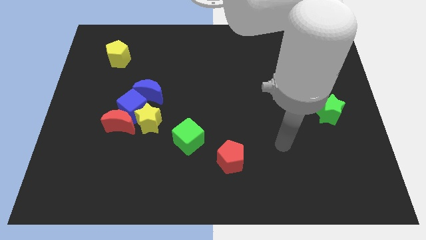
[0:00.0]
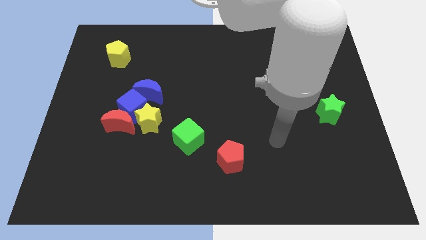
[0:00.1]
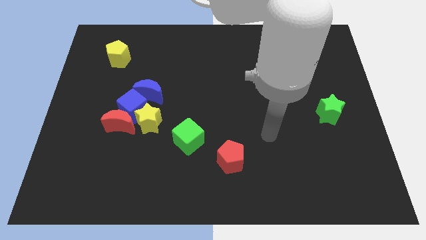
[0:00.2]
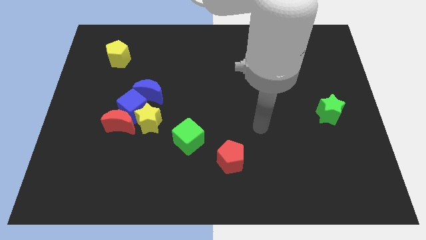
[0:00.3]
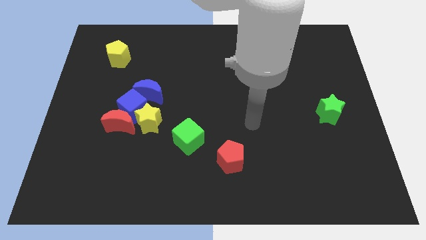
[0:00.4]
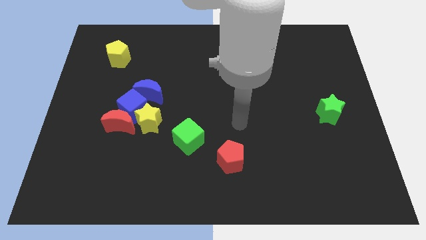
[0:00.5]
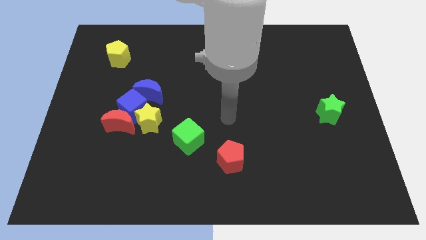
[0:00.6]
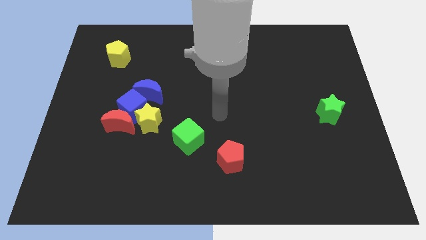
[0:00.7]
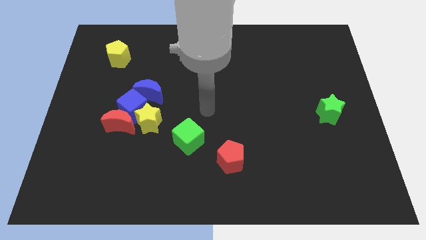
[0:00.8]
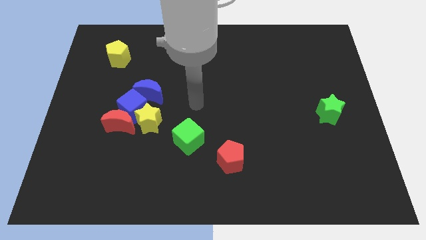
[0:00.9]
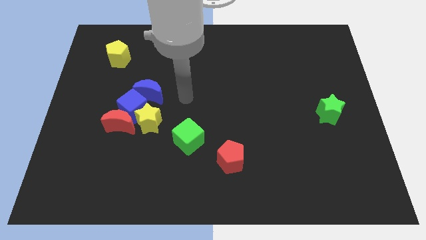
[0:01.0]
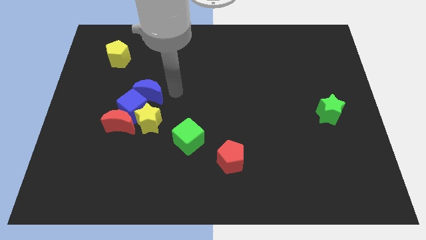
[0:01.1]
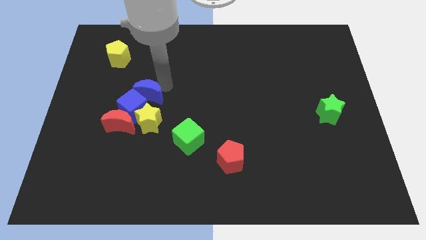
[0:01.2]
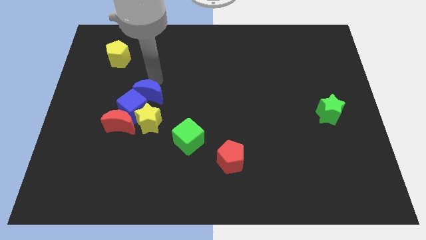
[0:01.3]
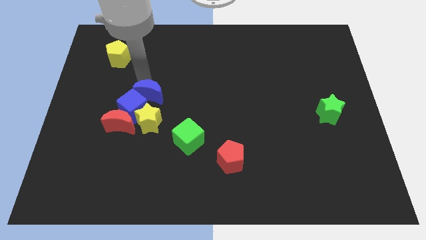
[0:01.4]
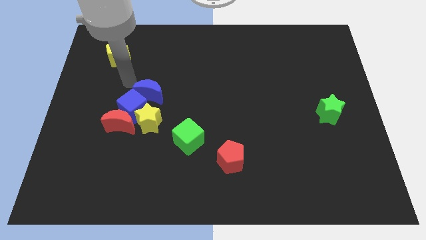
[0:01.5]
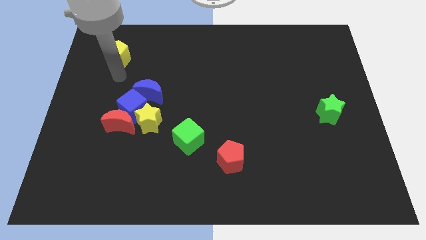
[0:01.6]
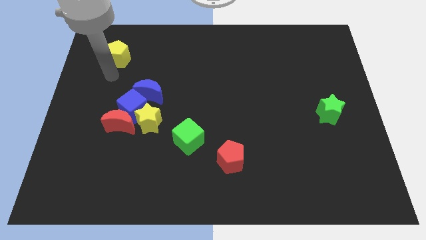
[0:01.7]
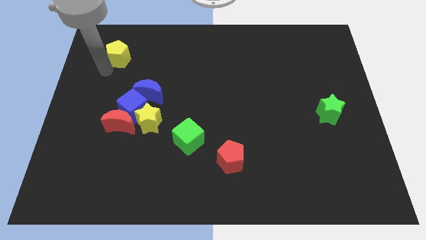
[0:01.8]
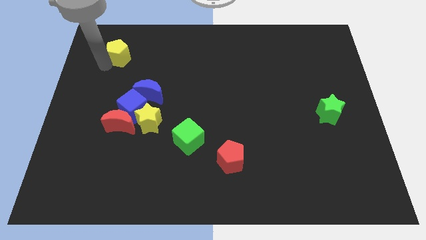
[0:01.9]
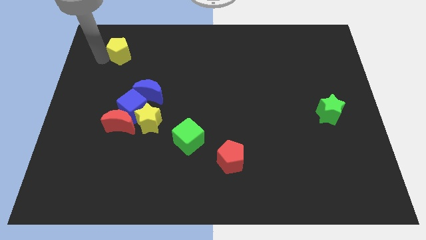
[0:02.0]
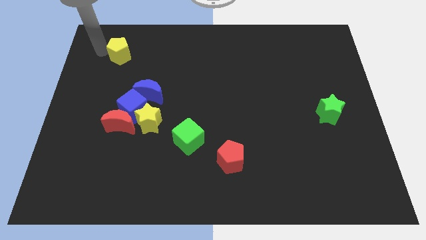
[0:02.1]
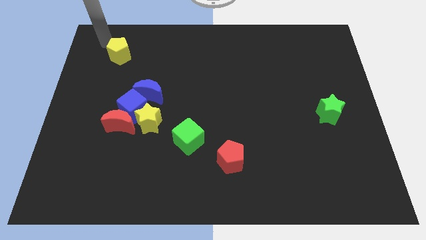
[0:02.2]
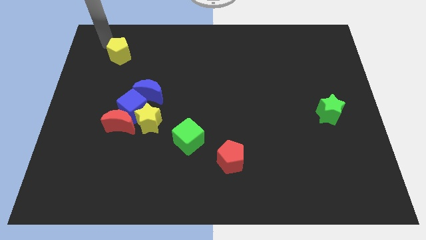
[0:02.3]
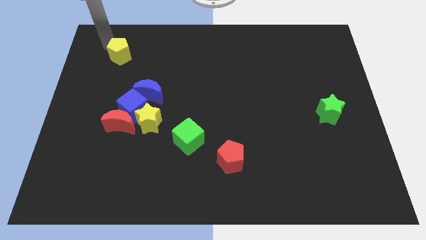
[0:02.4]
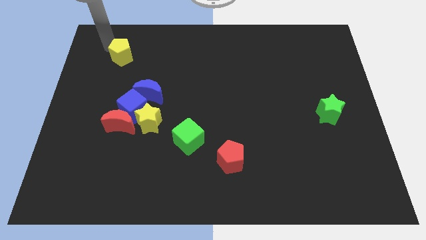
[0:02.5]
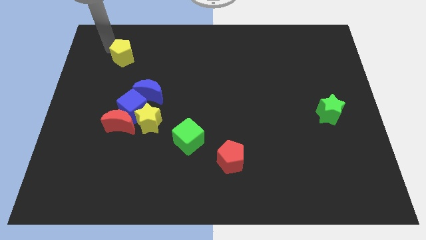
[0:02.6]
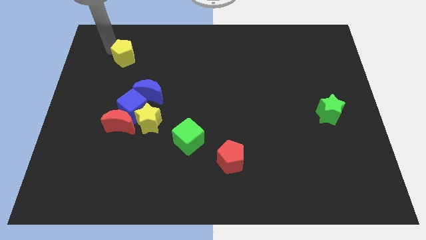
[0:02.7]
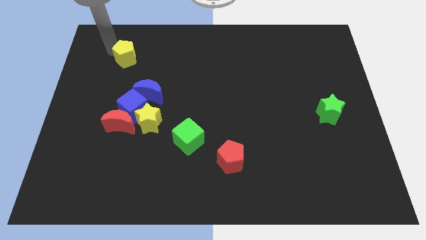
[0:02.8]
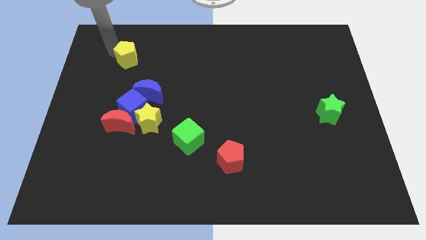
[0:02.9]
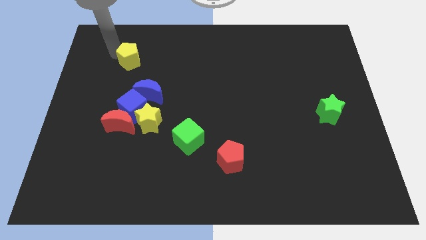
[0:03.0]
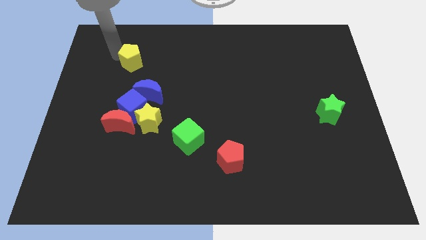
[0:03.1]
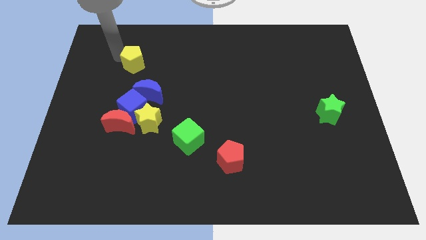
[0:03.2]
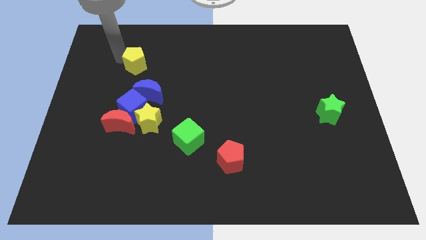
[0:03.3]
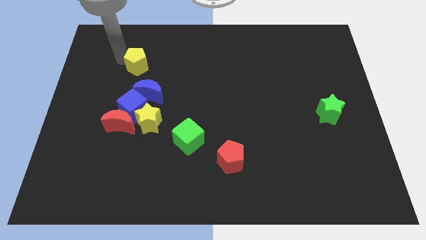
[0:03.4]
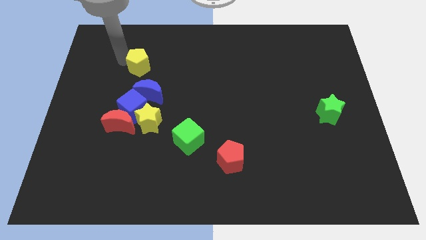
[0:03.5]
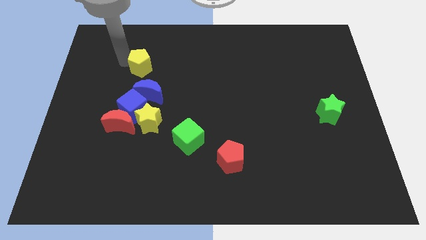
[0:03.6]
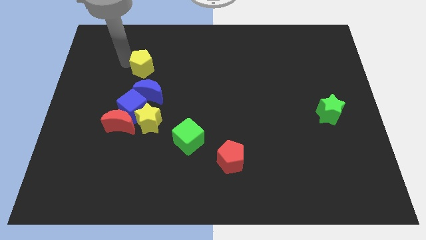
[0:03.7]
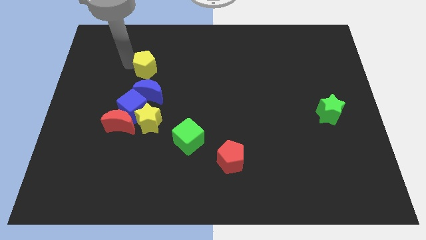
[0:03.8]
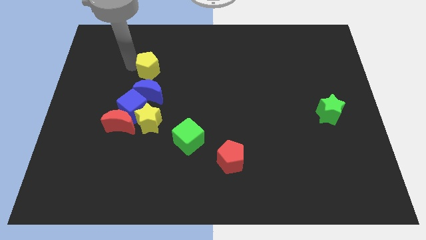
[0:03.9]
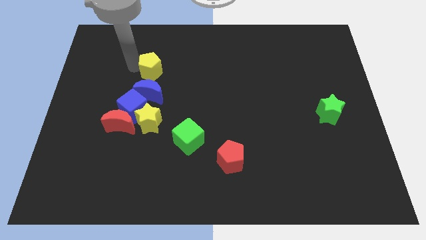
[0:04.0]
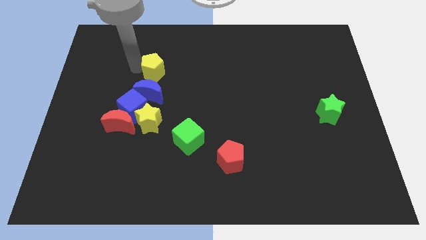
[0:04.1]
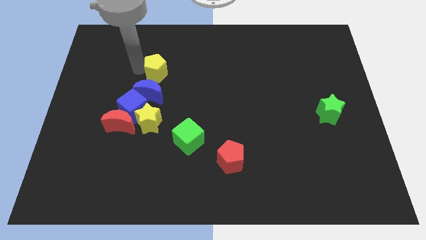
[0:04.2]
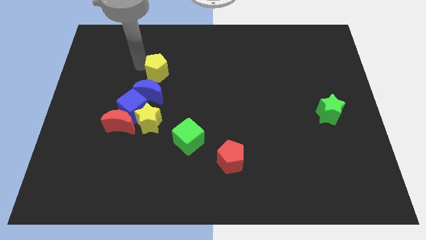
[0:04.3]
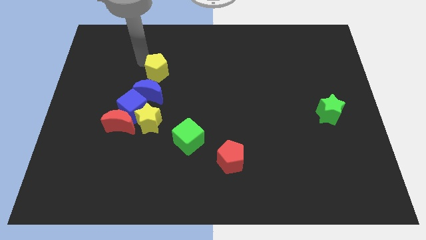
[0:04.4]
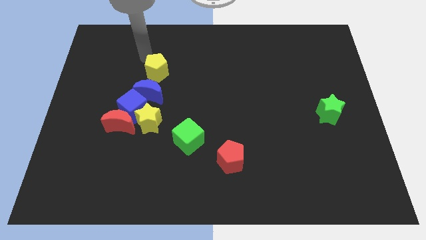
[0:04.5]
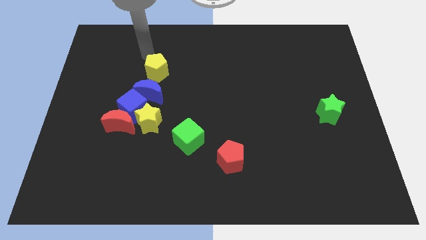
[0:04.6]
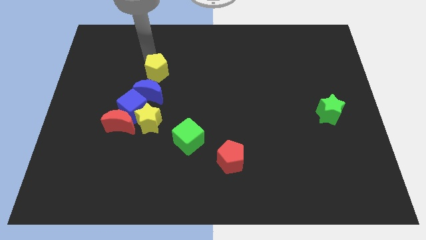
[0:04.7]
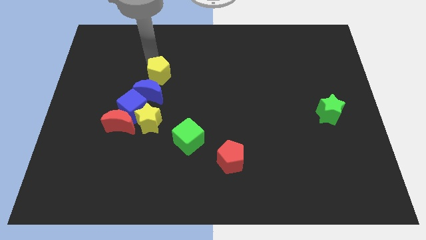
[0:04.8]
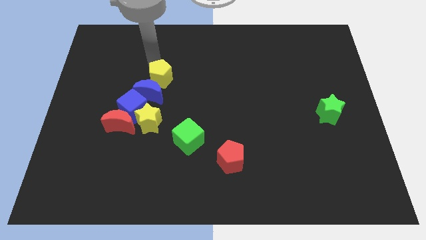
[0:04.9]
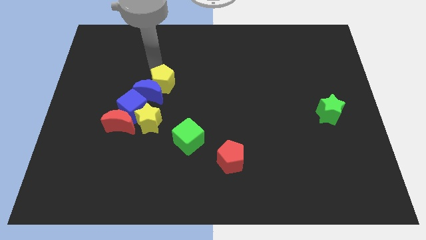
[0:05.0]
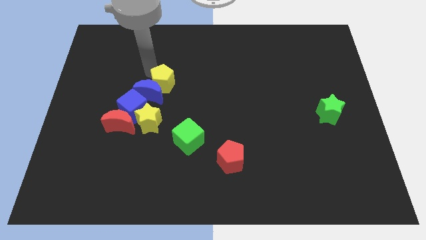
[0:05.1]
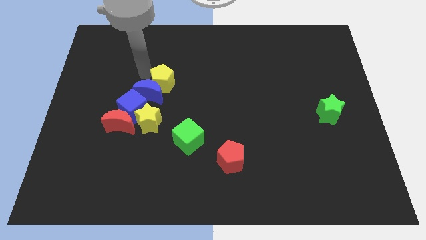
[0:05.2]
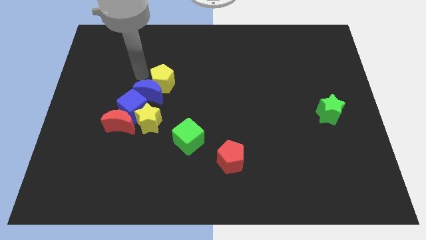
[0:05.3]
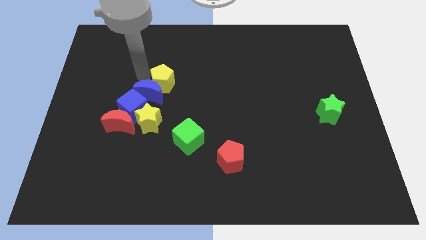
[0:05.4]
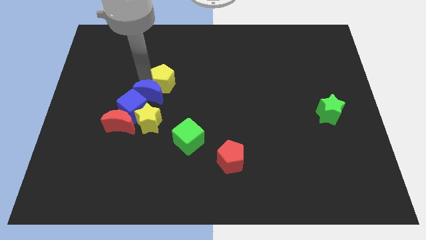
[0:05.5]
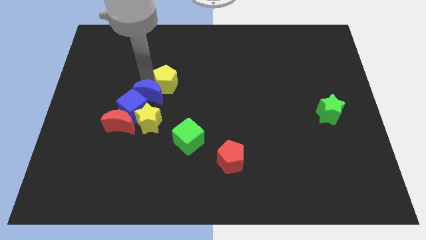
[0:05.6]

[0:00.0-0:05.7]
put the yellow pentagon to the middle

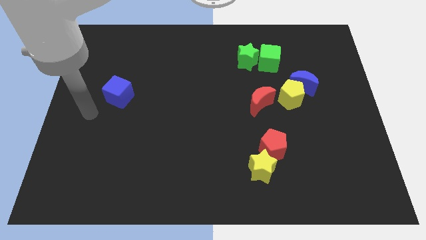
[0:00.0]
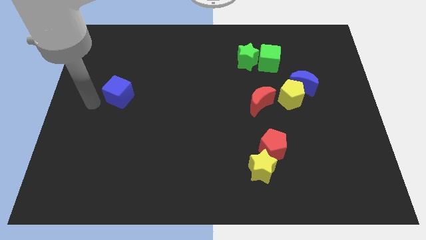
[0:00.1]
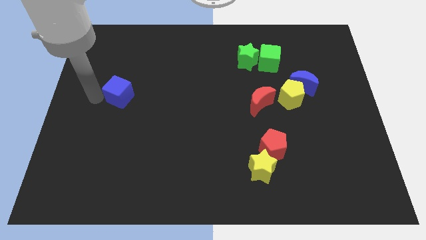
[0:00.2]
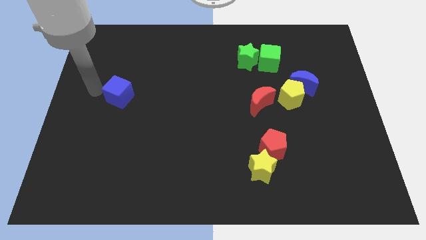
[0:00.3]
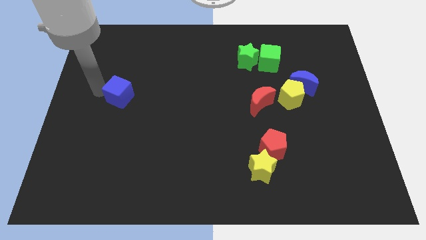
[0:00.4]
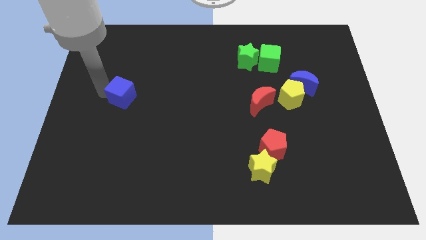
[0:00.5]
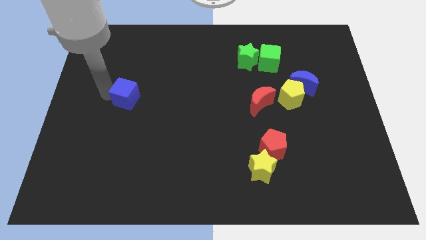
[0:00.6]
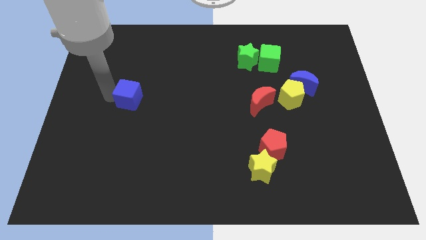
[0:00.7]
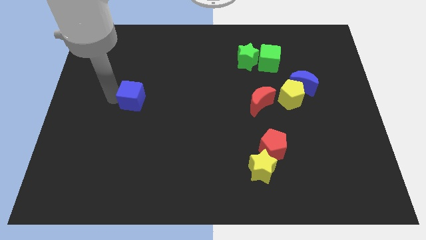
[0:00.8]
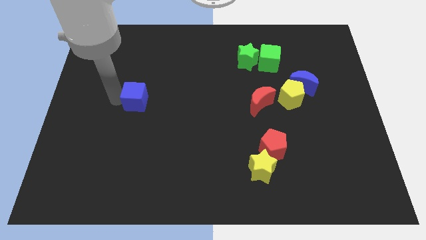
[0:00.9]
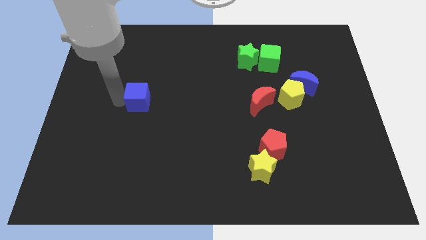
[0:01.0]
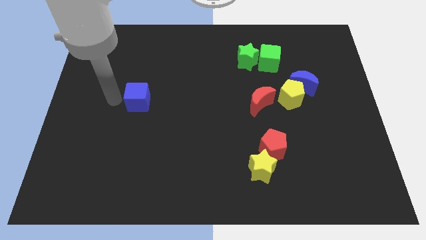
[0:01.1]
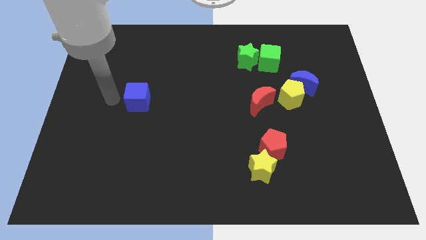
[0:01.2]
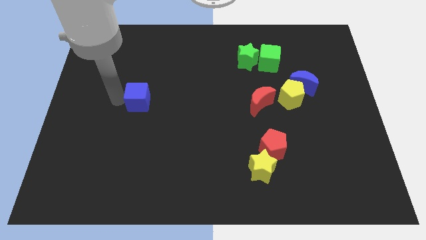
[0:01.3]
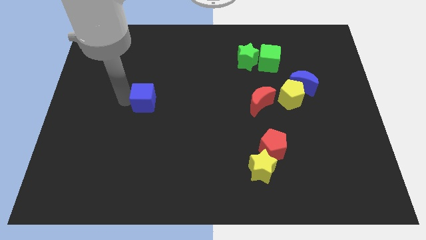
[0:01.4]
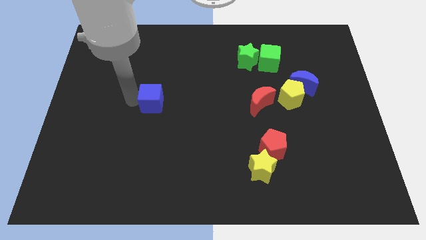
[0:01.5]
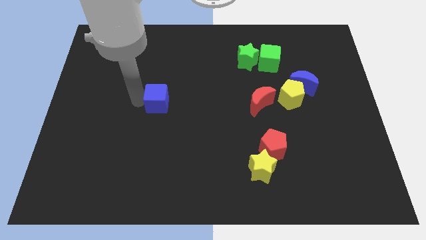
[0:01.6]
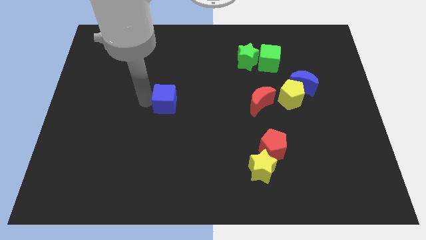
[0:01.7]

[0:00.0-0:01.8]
push the blue cube to the middle of the board
